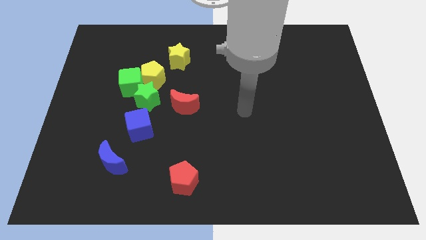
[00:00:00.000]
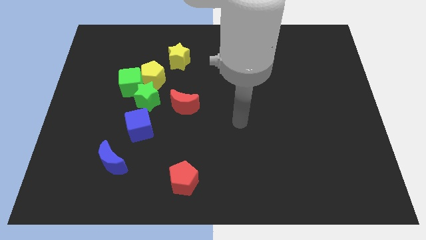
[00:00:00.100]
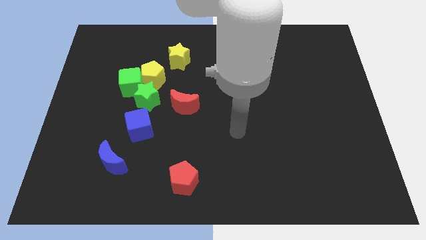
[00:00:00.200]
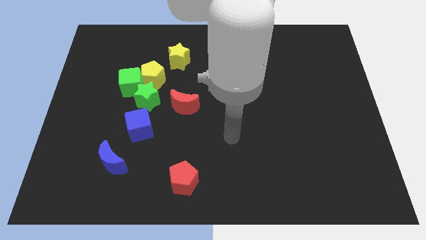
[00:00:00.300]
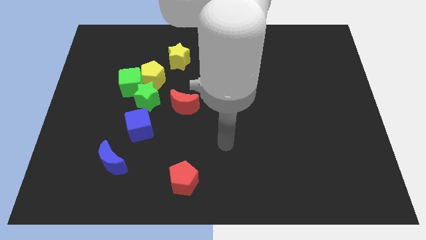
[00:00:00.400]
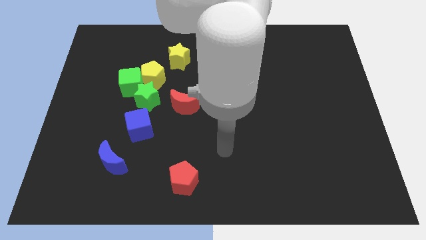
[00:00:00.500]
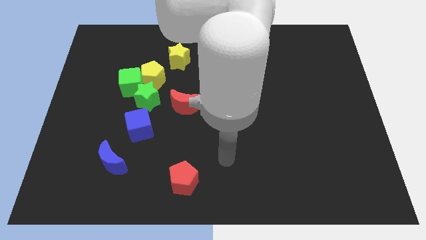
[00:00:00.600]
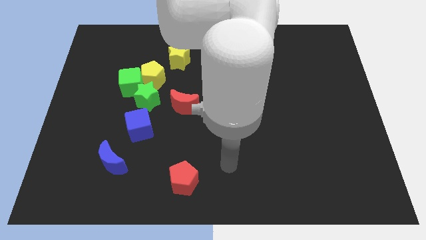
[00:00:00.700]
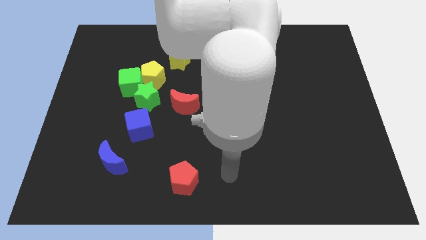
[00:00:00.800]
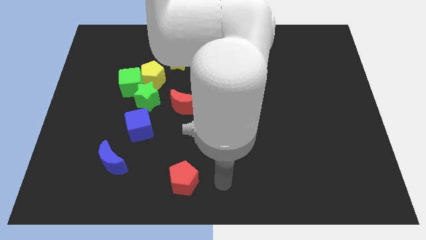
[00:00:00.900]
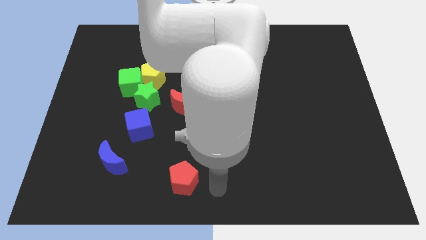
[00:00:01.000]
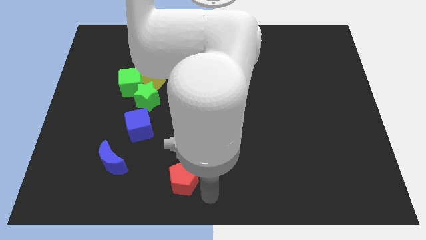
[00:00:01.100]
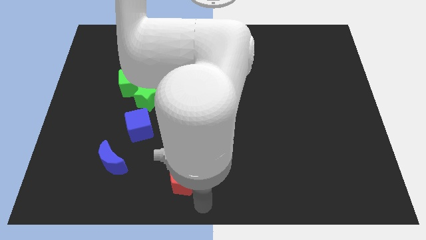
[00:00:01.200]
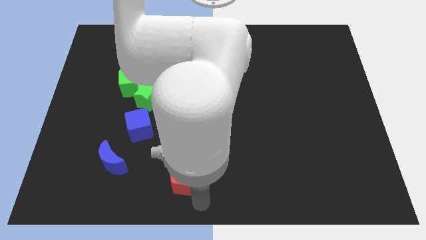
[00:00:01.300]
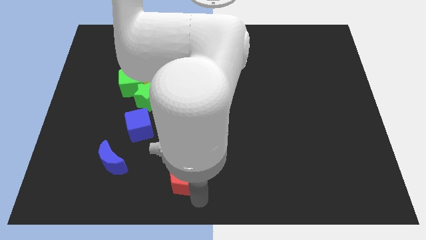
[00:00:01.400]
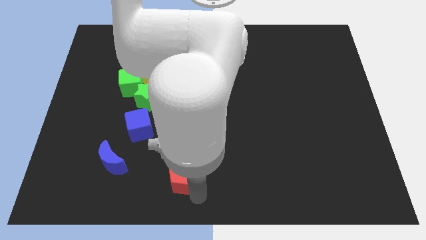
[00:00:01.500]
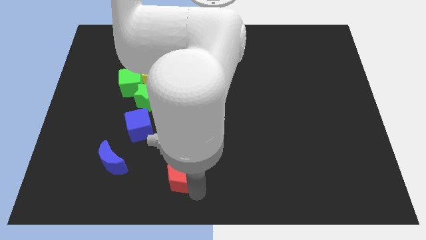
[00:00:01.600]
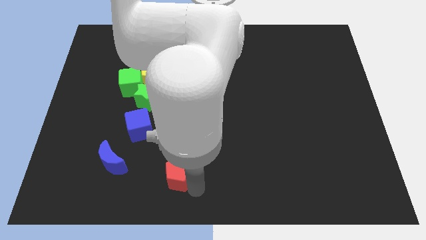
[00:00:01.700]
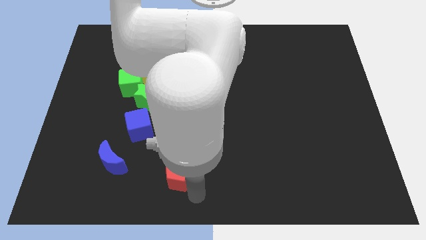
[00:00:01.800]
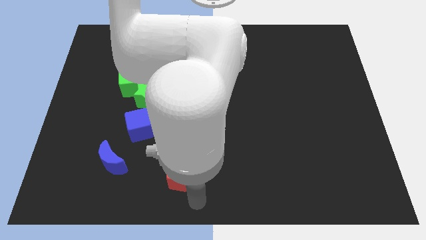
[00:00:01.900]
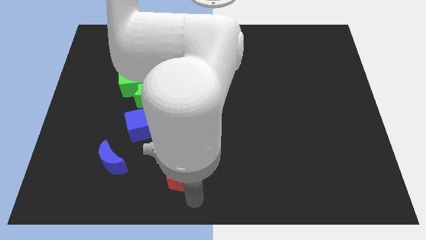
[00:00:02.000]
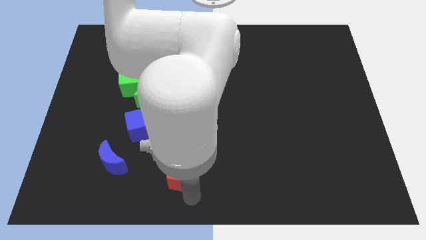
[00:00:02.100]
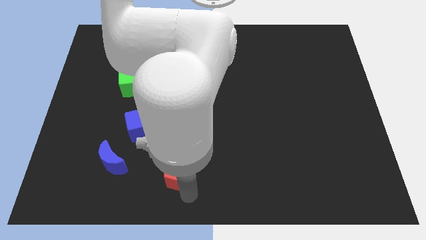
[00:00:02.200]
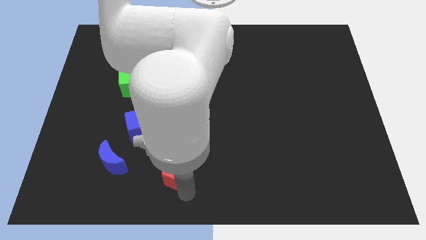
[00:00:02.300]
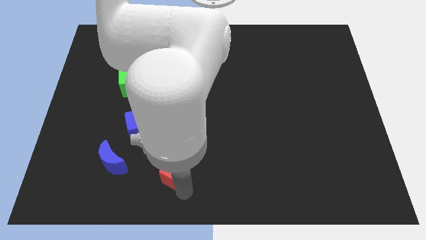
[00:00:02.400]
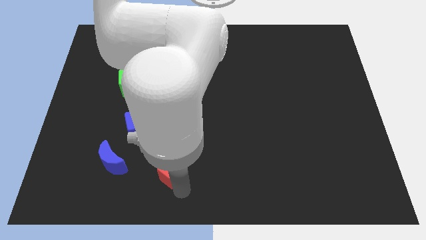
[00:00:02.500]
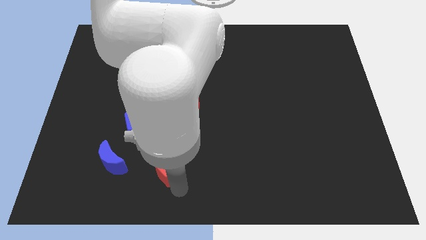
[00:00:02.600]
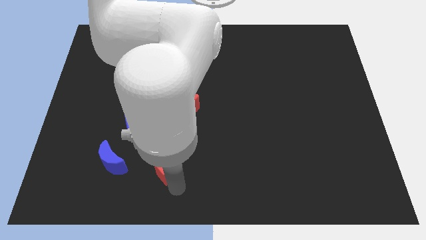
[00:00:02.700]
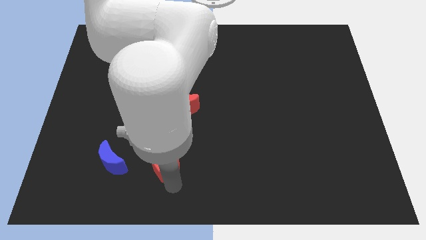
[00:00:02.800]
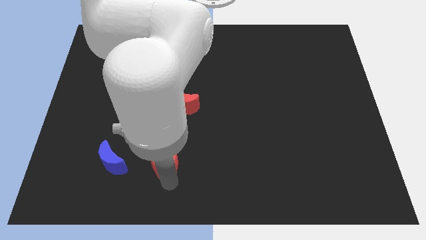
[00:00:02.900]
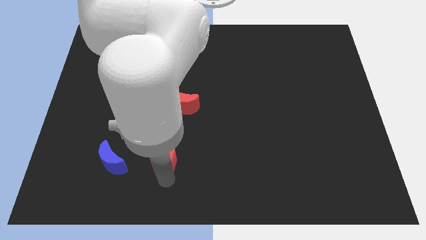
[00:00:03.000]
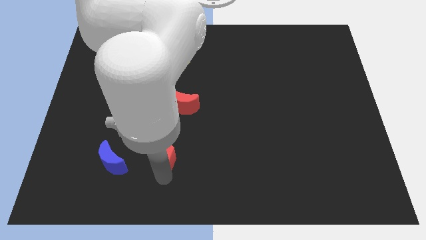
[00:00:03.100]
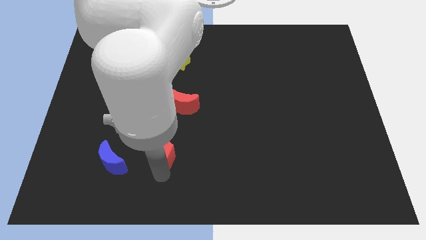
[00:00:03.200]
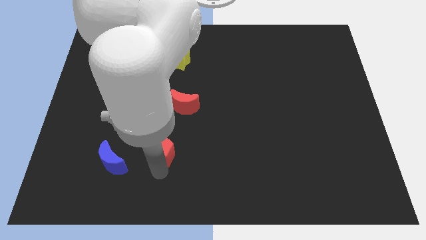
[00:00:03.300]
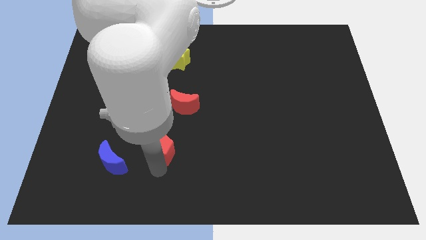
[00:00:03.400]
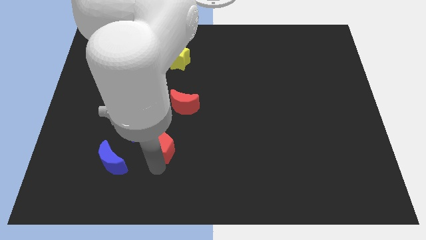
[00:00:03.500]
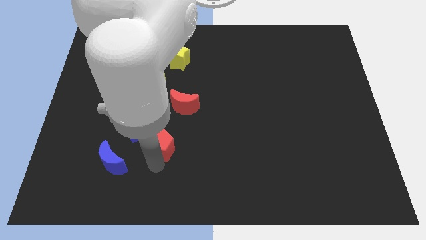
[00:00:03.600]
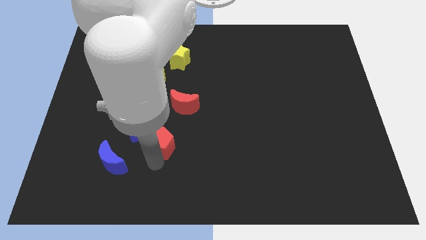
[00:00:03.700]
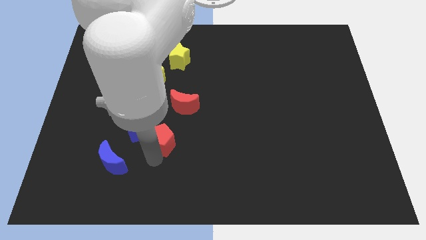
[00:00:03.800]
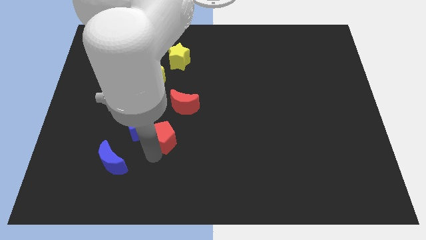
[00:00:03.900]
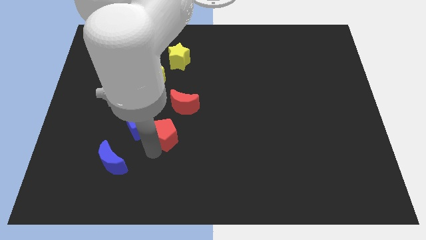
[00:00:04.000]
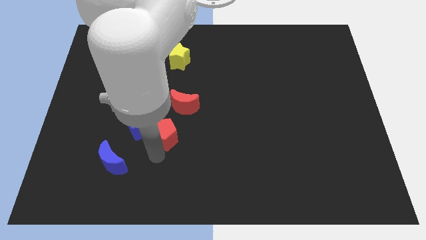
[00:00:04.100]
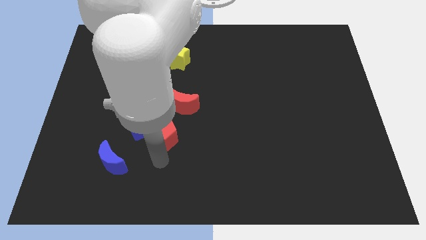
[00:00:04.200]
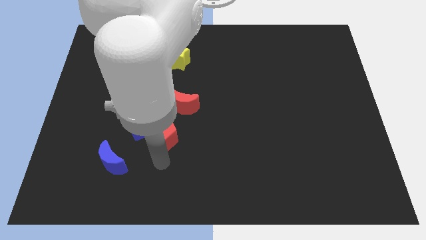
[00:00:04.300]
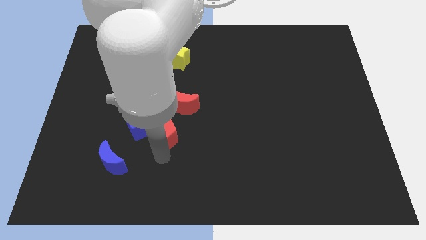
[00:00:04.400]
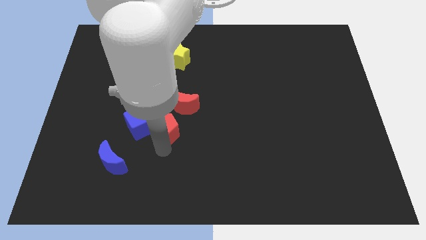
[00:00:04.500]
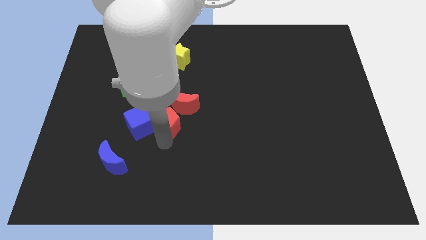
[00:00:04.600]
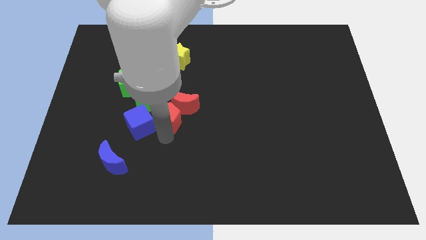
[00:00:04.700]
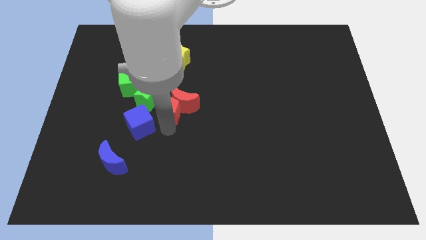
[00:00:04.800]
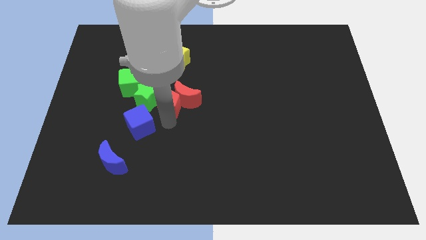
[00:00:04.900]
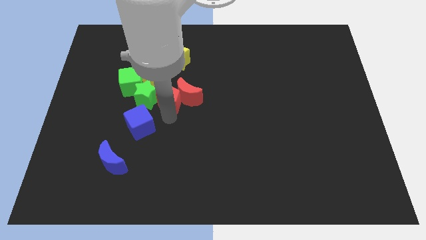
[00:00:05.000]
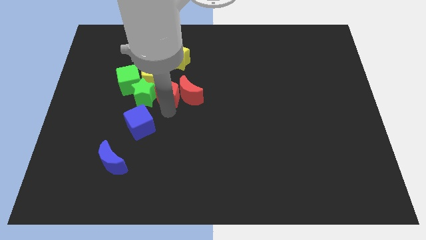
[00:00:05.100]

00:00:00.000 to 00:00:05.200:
move the red pentagon right of the green cube

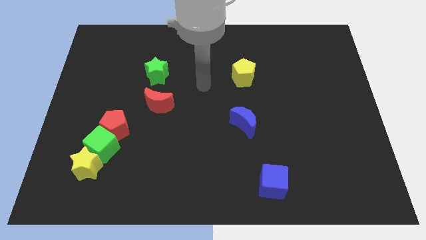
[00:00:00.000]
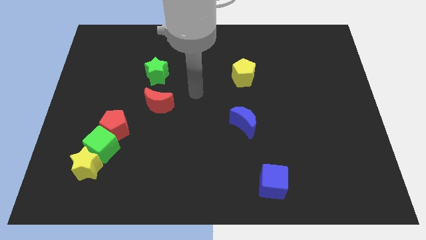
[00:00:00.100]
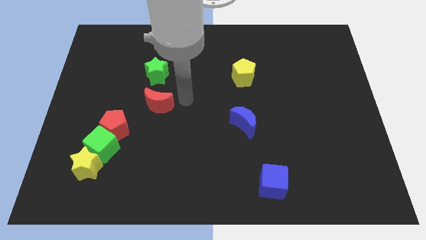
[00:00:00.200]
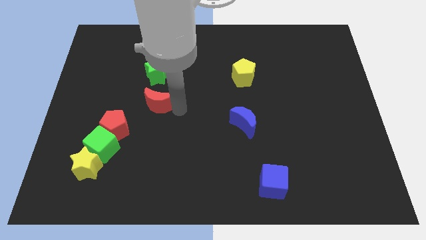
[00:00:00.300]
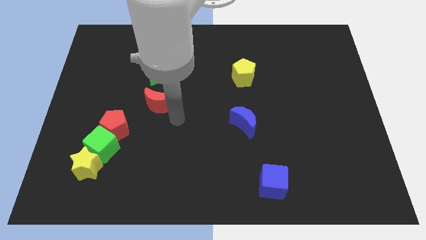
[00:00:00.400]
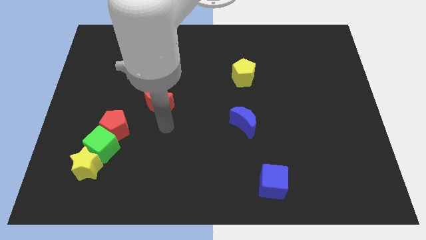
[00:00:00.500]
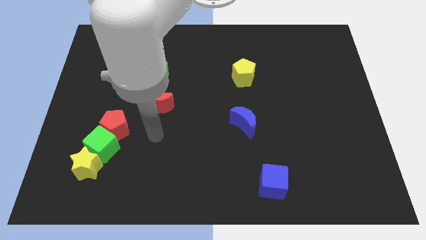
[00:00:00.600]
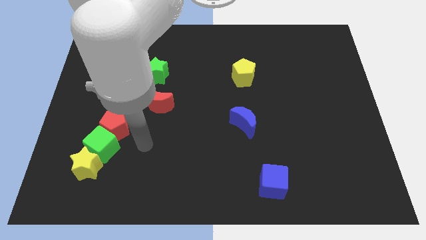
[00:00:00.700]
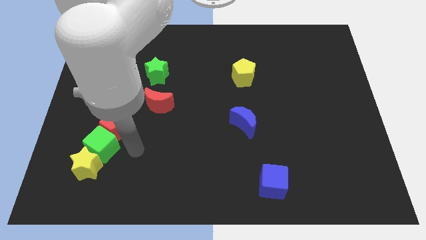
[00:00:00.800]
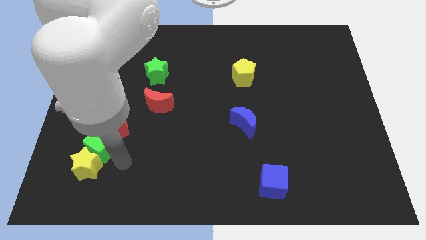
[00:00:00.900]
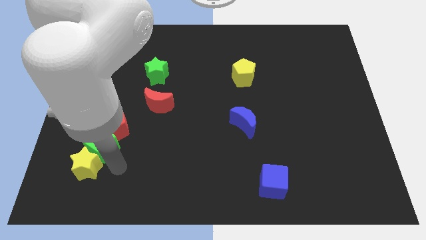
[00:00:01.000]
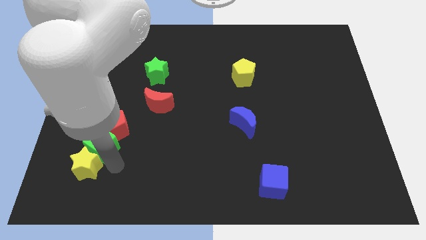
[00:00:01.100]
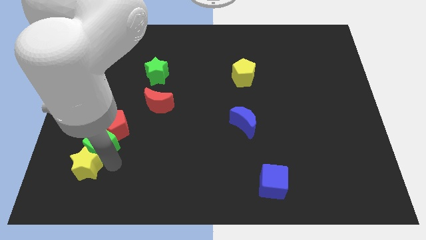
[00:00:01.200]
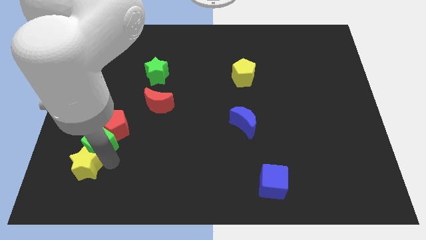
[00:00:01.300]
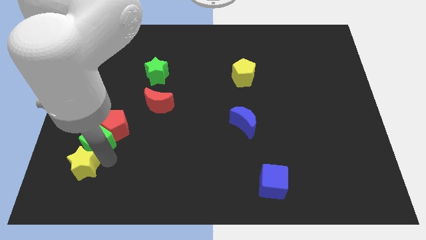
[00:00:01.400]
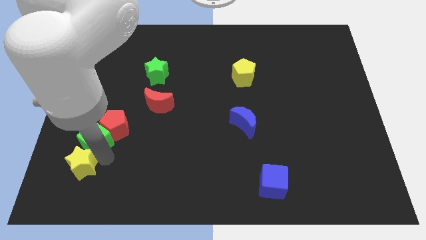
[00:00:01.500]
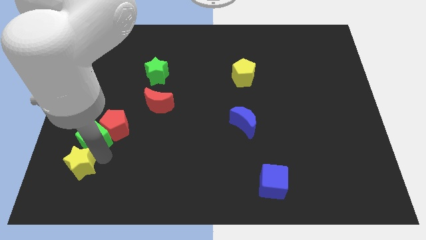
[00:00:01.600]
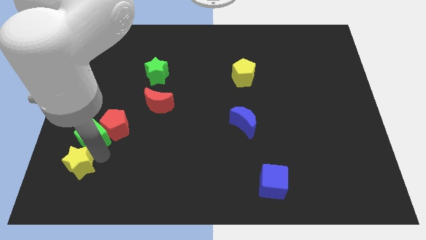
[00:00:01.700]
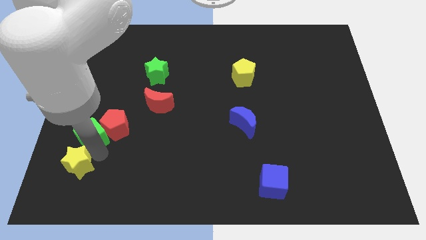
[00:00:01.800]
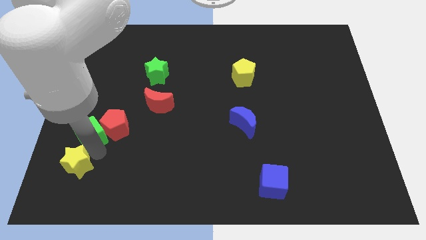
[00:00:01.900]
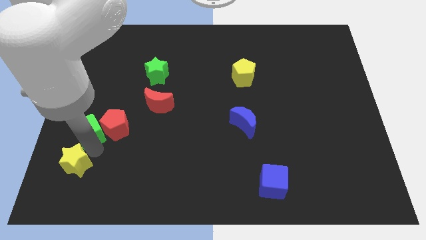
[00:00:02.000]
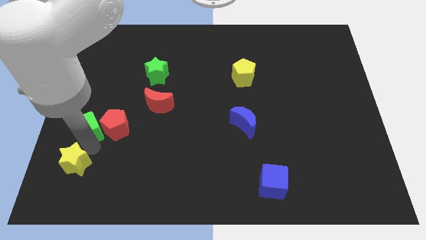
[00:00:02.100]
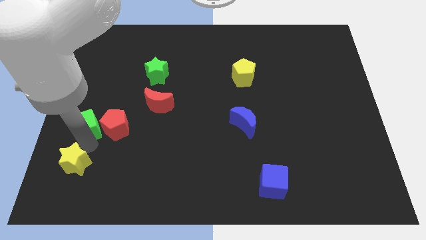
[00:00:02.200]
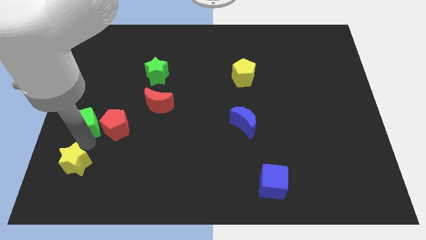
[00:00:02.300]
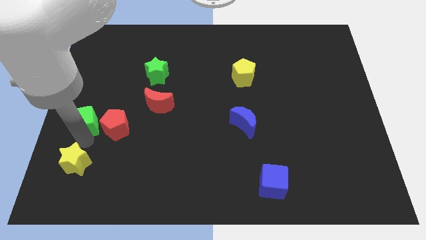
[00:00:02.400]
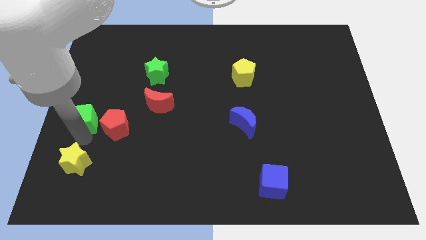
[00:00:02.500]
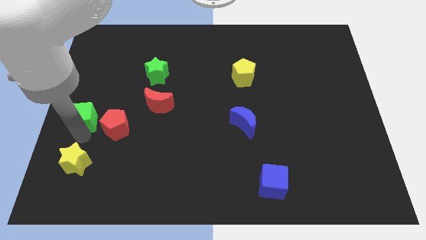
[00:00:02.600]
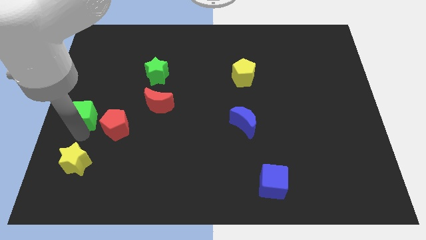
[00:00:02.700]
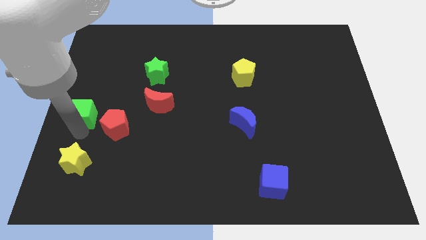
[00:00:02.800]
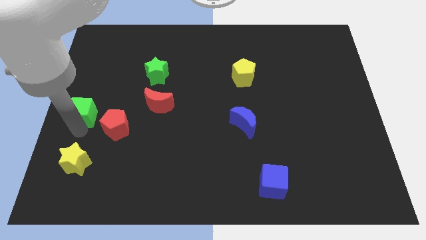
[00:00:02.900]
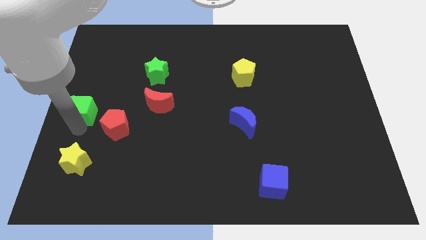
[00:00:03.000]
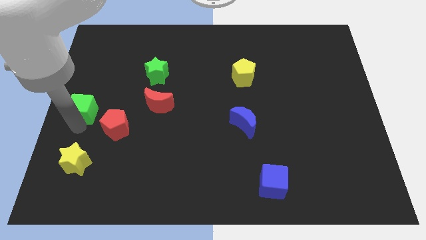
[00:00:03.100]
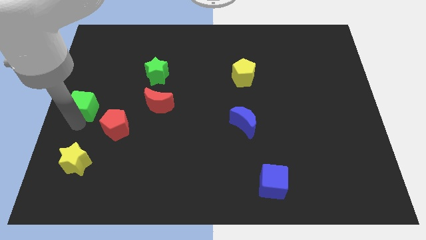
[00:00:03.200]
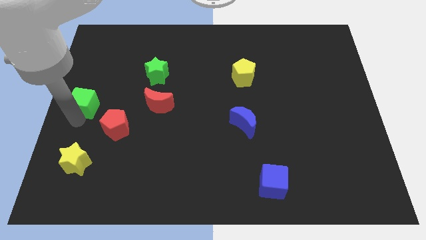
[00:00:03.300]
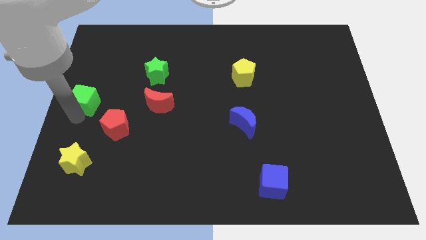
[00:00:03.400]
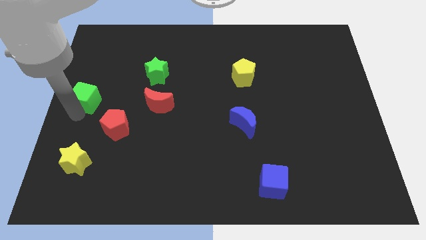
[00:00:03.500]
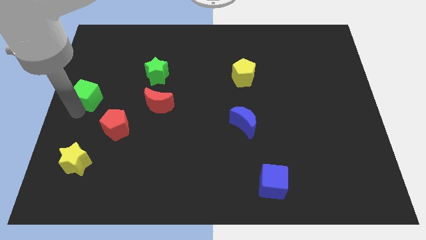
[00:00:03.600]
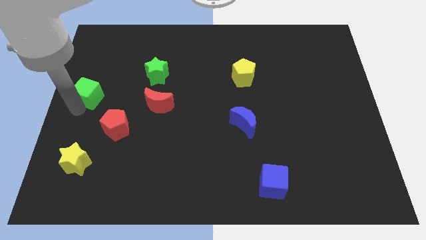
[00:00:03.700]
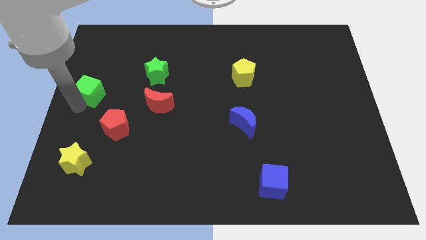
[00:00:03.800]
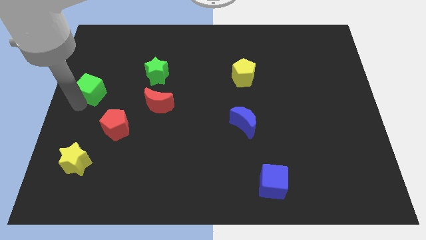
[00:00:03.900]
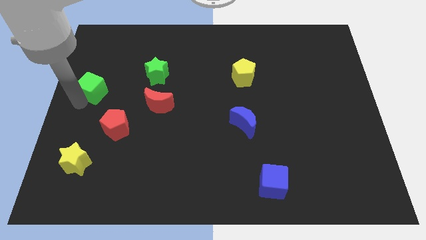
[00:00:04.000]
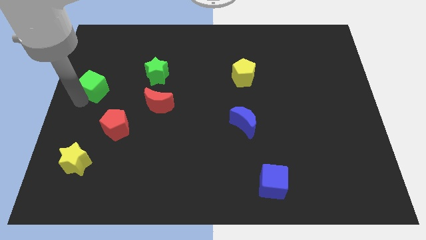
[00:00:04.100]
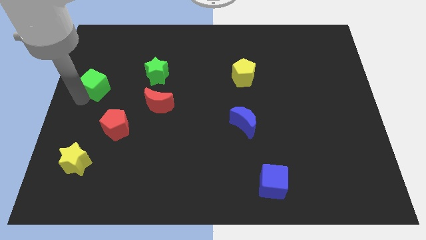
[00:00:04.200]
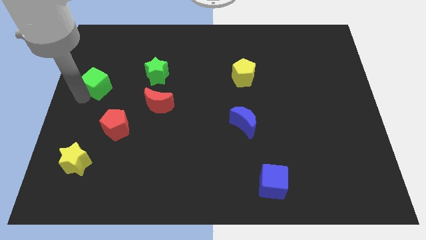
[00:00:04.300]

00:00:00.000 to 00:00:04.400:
move the green cube to the left of the green star
